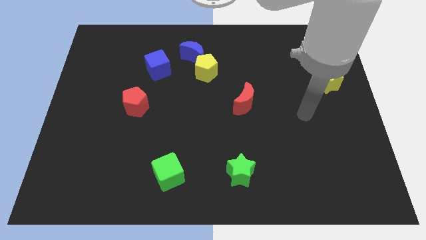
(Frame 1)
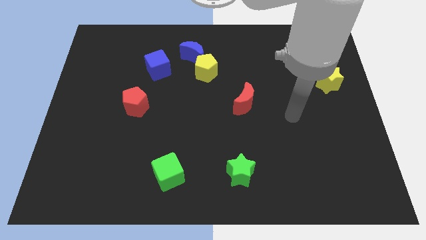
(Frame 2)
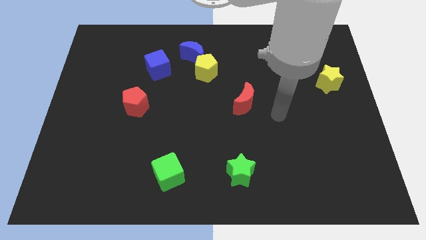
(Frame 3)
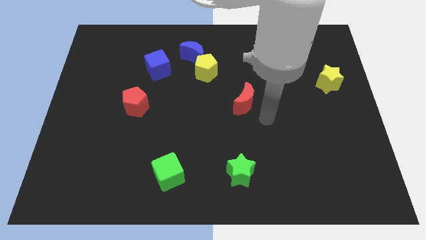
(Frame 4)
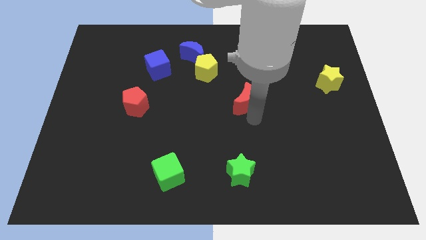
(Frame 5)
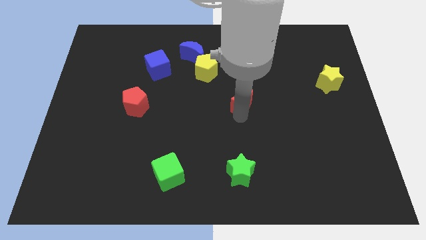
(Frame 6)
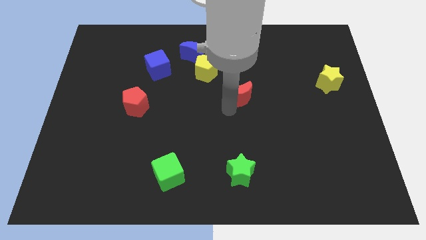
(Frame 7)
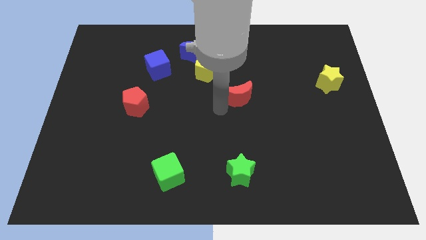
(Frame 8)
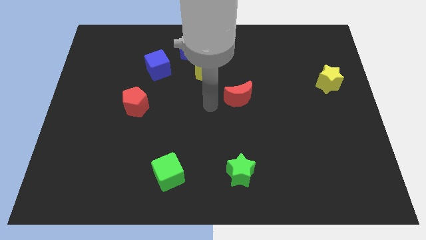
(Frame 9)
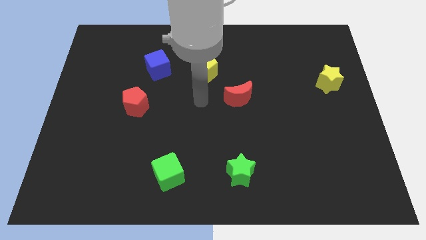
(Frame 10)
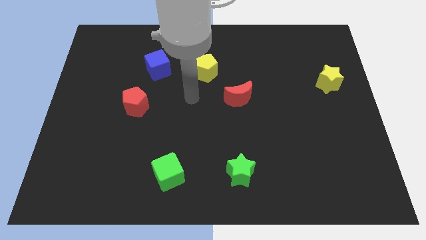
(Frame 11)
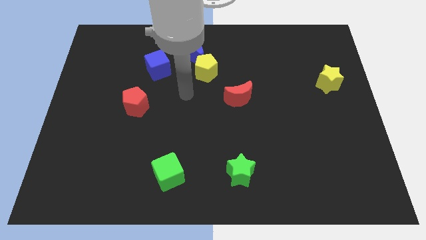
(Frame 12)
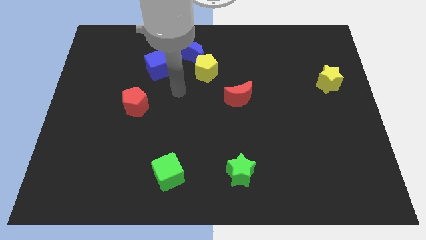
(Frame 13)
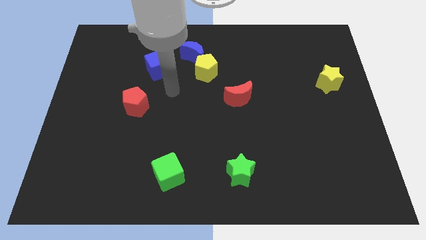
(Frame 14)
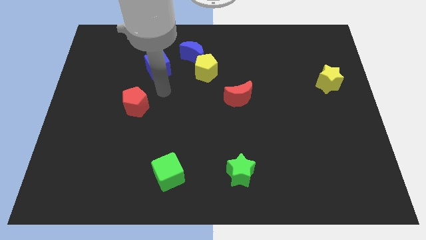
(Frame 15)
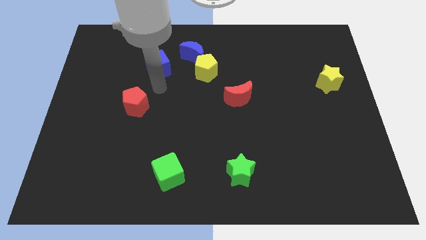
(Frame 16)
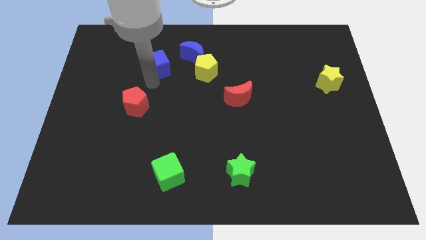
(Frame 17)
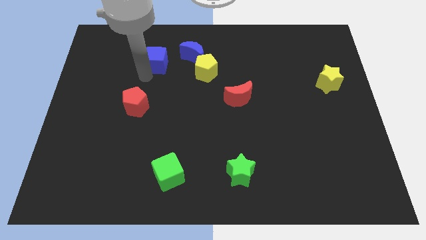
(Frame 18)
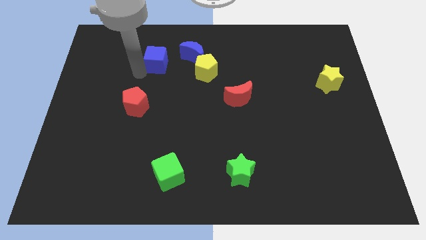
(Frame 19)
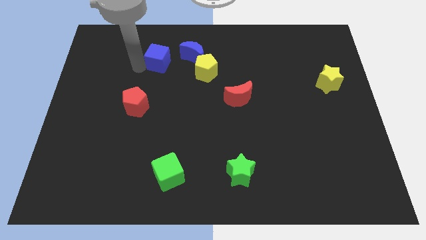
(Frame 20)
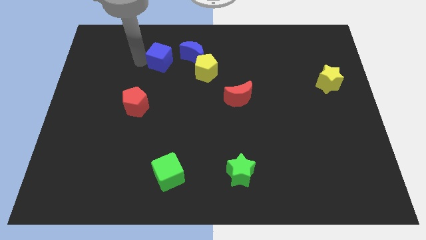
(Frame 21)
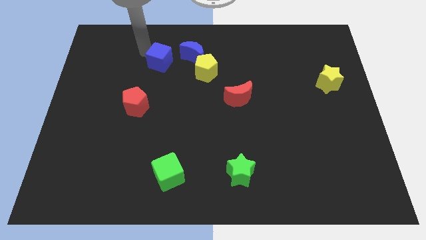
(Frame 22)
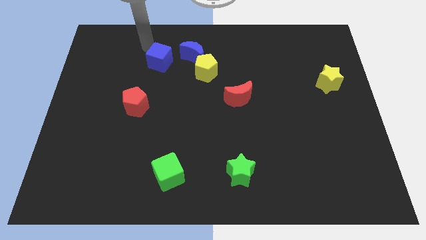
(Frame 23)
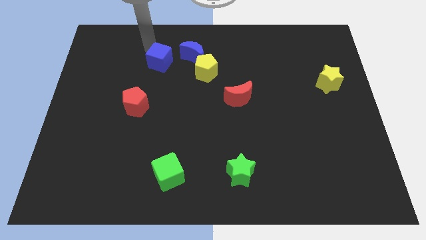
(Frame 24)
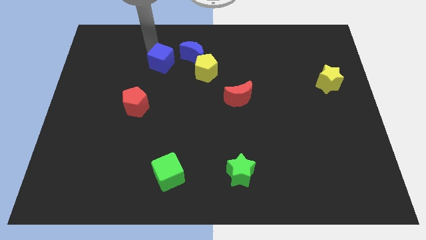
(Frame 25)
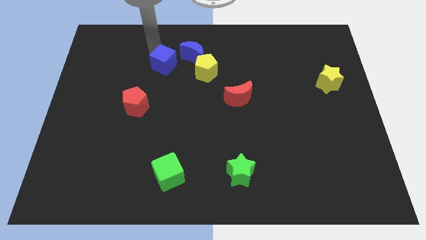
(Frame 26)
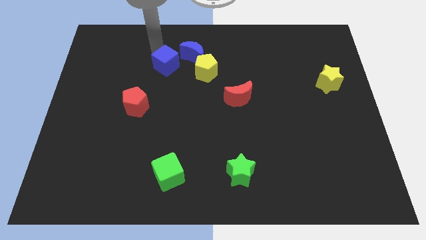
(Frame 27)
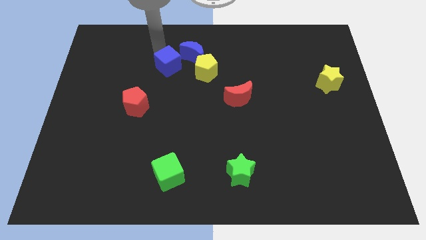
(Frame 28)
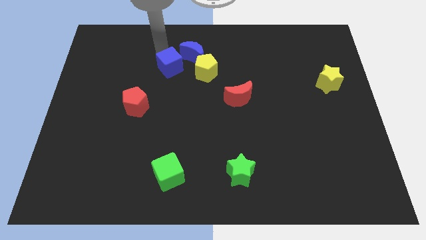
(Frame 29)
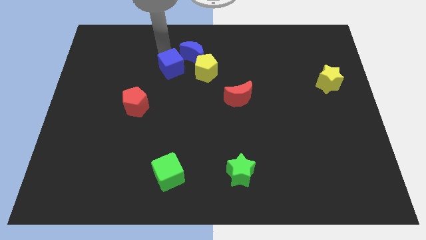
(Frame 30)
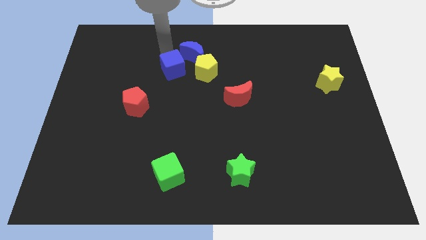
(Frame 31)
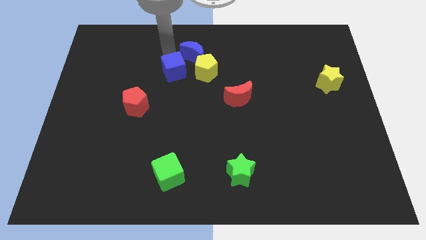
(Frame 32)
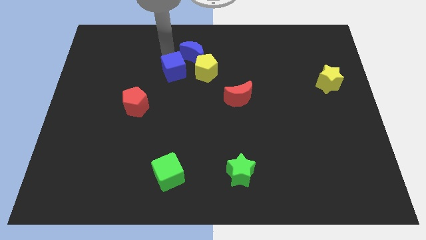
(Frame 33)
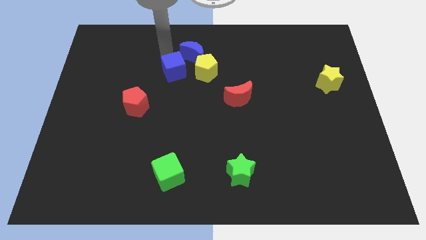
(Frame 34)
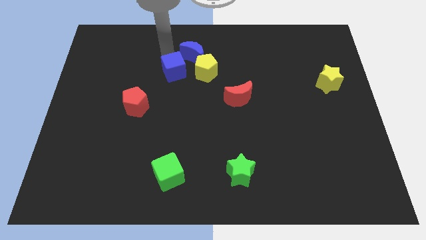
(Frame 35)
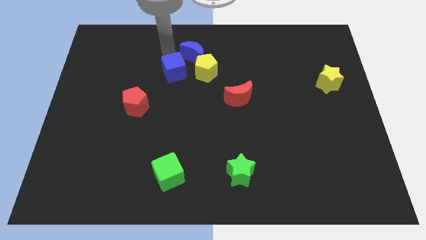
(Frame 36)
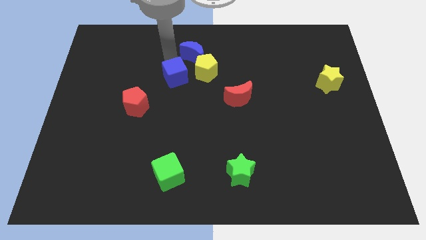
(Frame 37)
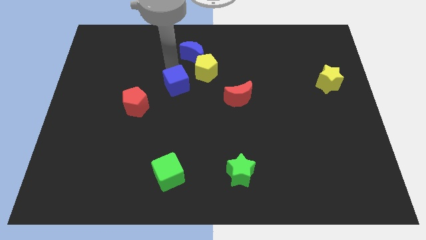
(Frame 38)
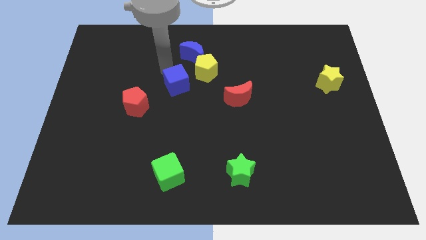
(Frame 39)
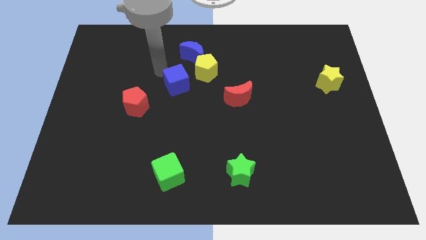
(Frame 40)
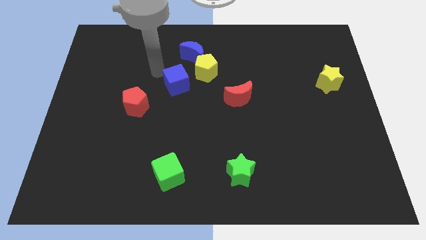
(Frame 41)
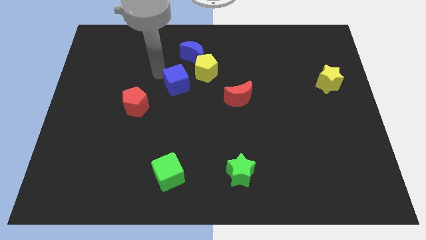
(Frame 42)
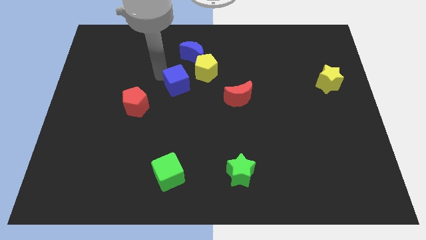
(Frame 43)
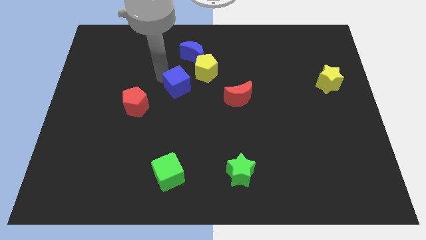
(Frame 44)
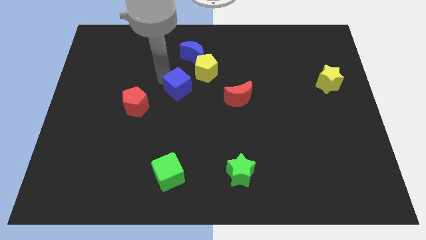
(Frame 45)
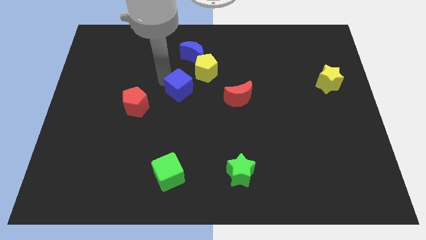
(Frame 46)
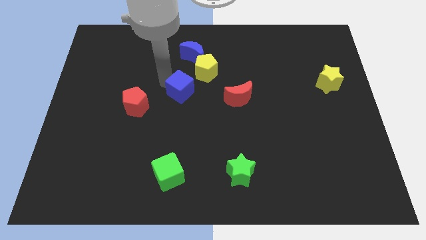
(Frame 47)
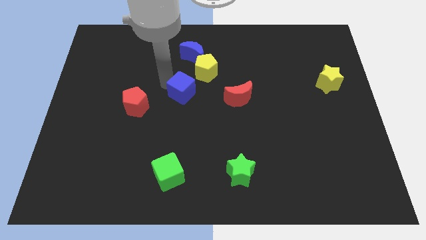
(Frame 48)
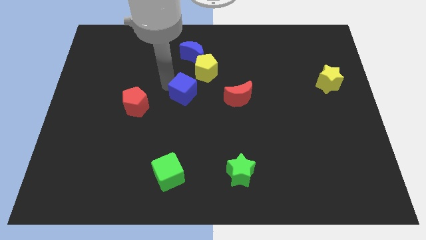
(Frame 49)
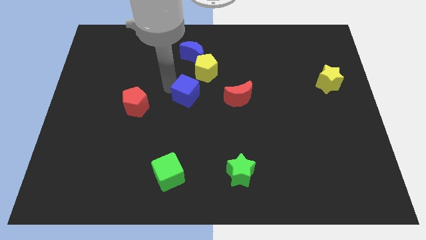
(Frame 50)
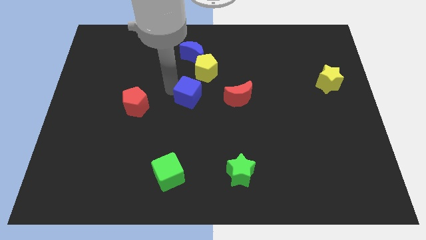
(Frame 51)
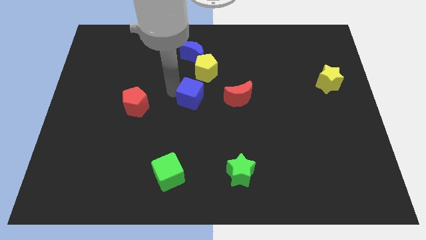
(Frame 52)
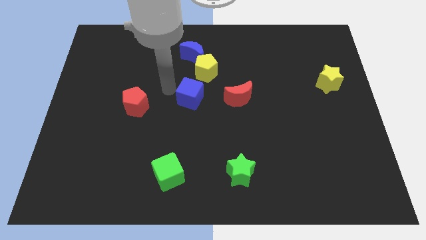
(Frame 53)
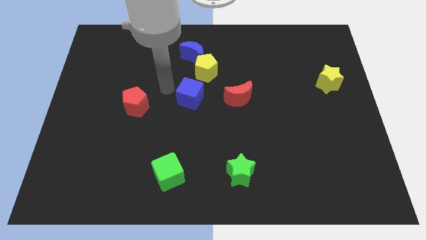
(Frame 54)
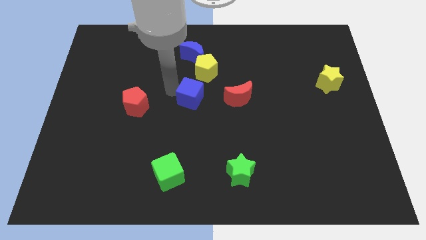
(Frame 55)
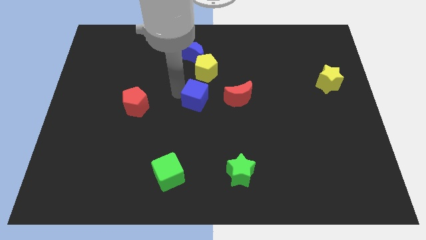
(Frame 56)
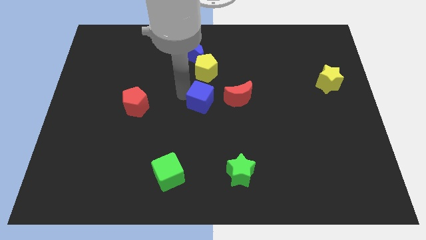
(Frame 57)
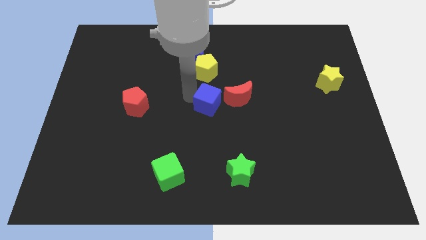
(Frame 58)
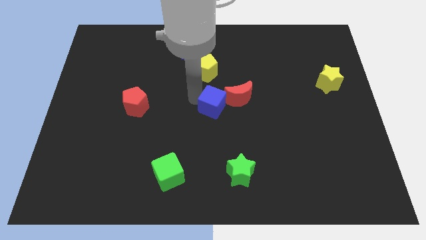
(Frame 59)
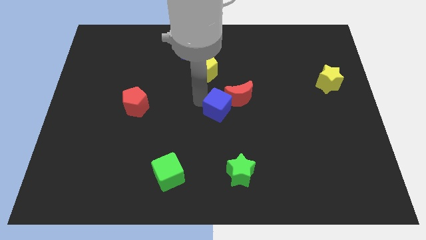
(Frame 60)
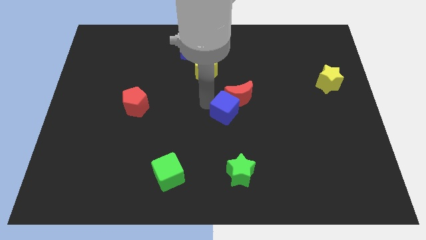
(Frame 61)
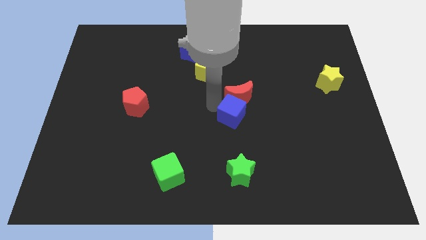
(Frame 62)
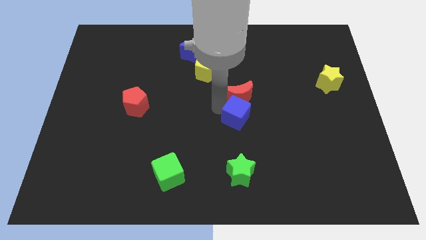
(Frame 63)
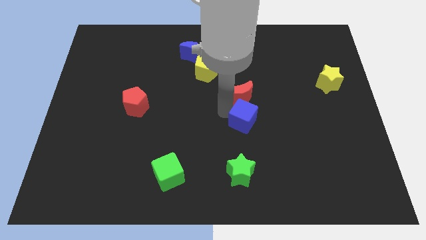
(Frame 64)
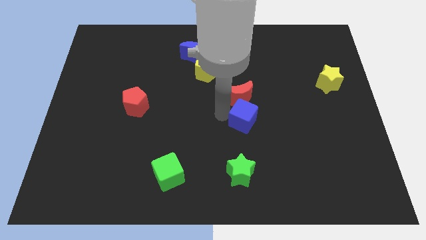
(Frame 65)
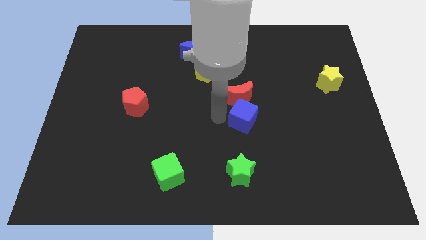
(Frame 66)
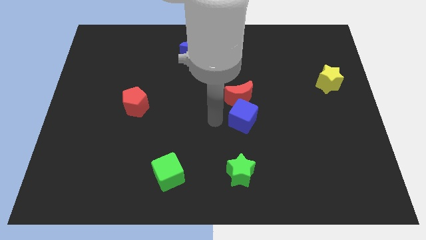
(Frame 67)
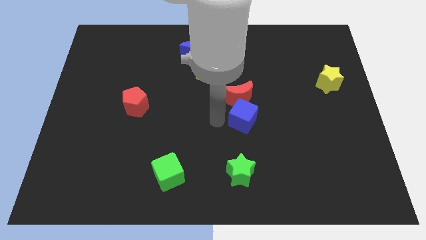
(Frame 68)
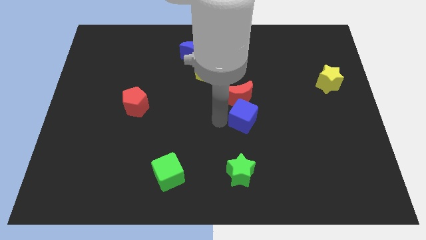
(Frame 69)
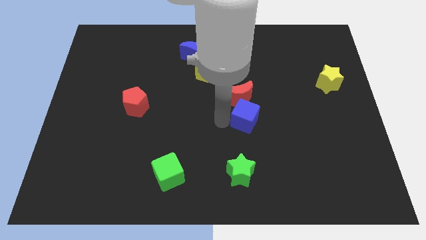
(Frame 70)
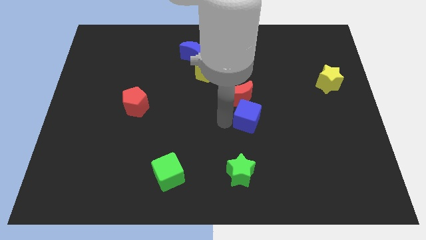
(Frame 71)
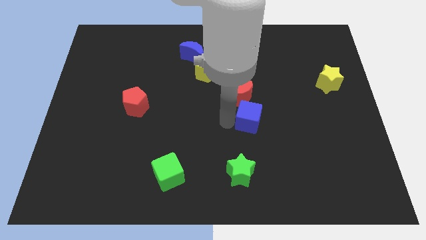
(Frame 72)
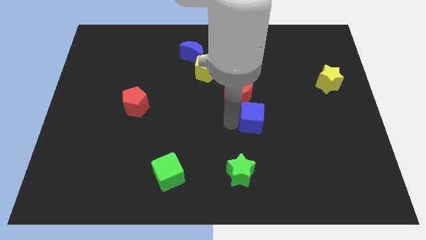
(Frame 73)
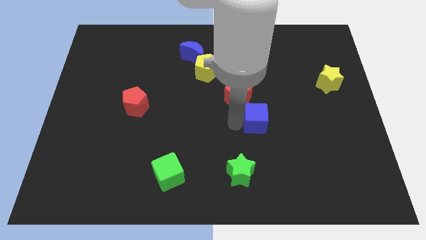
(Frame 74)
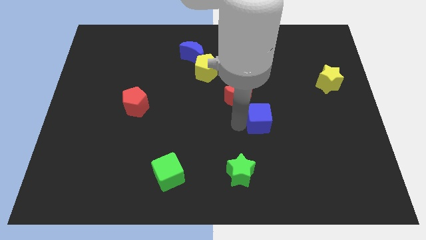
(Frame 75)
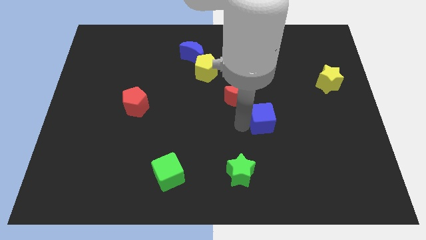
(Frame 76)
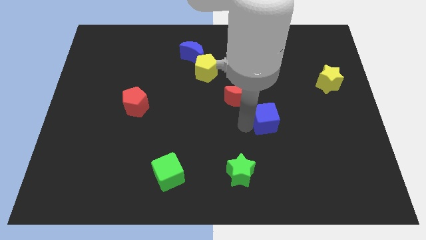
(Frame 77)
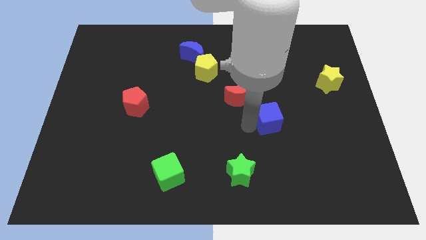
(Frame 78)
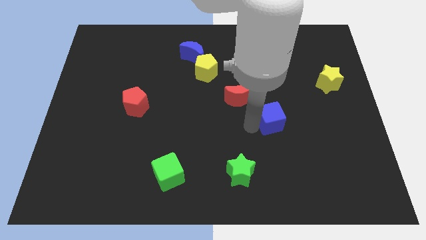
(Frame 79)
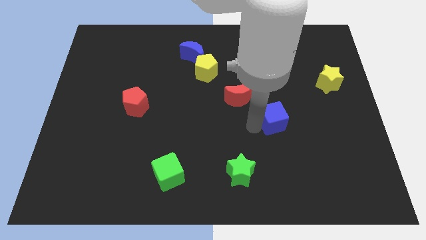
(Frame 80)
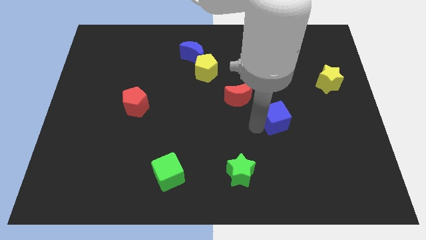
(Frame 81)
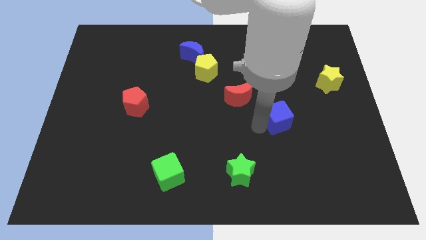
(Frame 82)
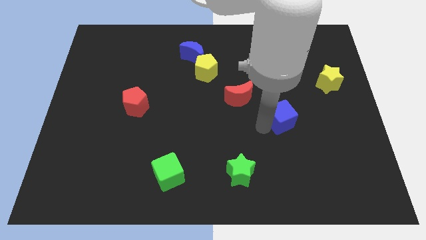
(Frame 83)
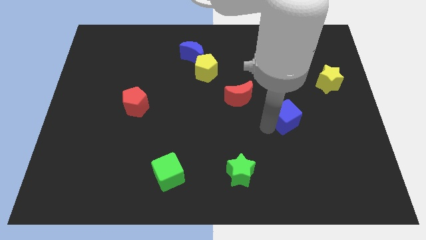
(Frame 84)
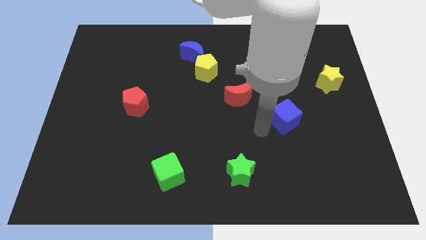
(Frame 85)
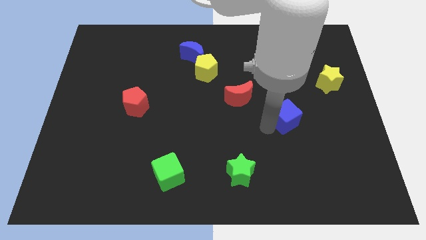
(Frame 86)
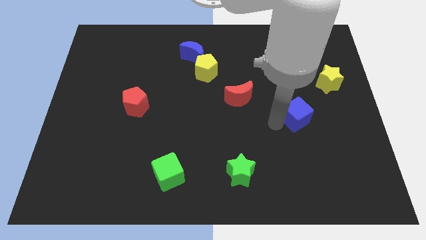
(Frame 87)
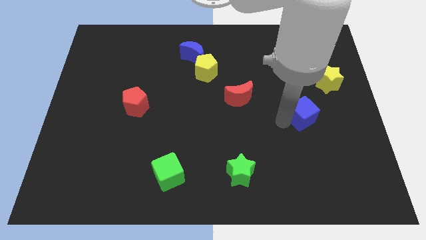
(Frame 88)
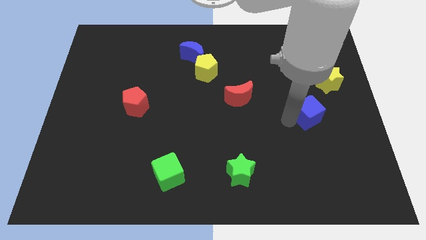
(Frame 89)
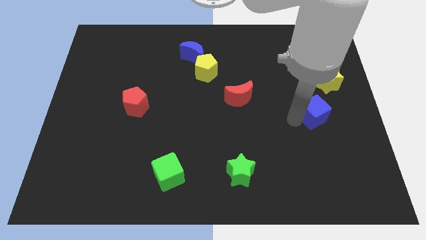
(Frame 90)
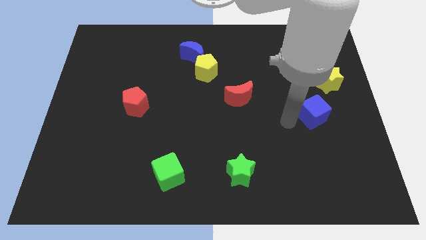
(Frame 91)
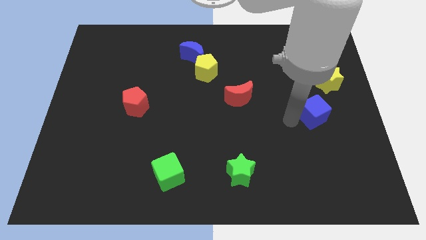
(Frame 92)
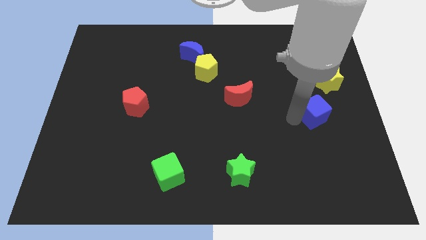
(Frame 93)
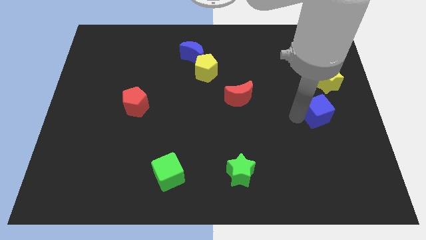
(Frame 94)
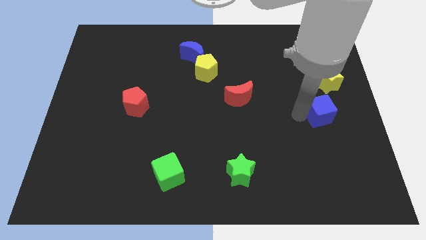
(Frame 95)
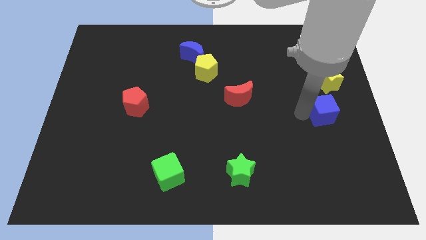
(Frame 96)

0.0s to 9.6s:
slide the blue cube to the right side of the board
